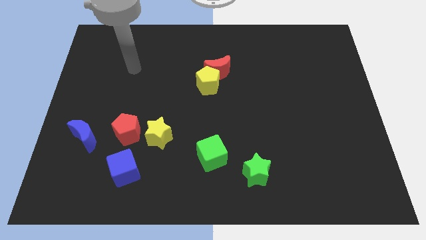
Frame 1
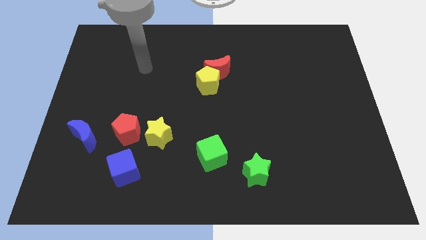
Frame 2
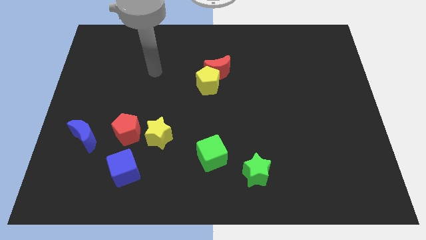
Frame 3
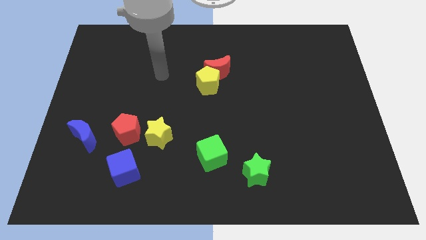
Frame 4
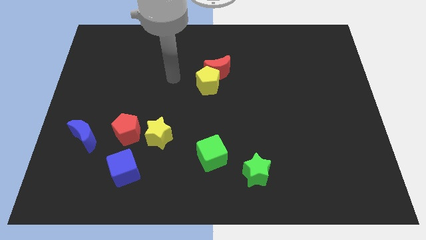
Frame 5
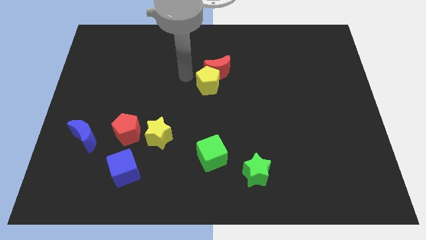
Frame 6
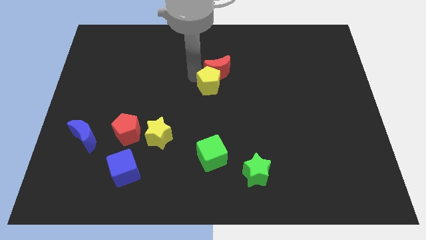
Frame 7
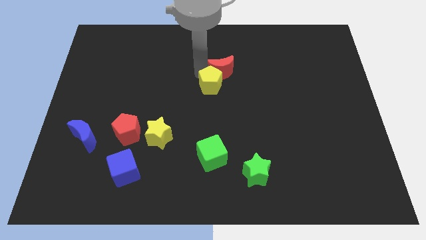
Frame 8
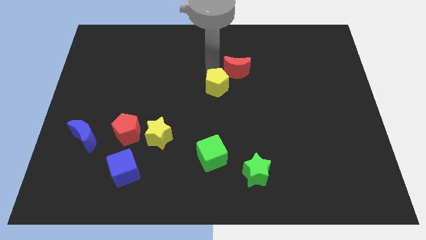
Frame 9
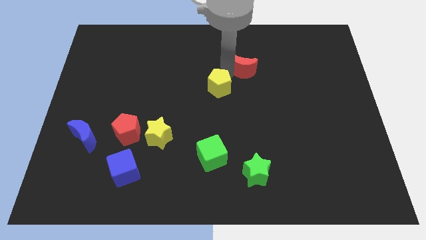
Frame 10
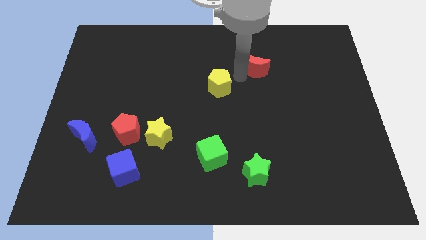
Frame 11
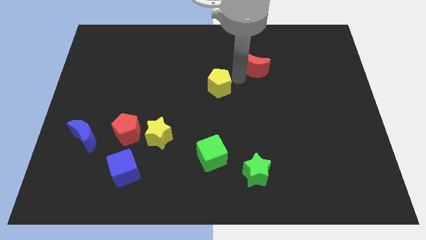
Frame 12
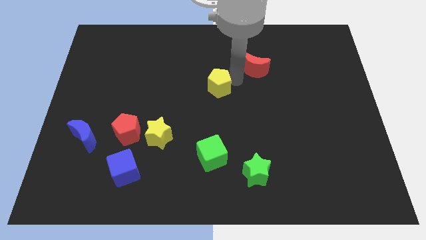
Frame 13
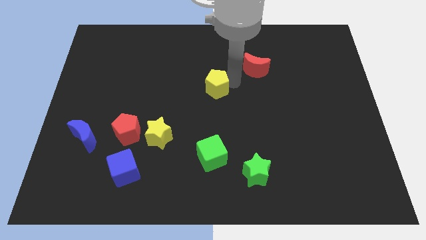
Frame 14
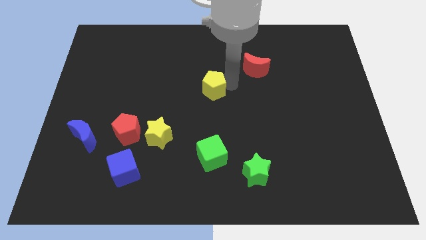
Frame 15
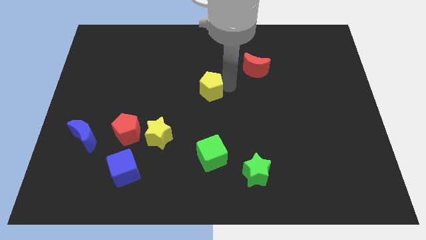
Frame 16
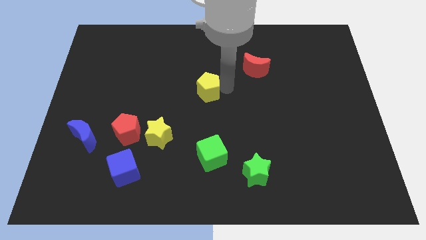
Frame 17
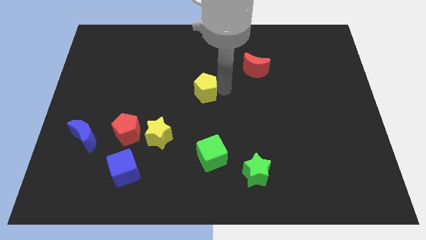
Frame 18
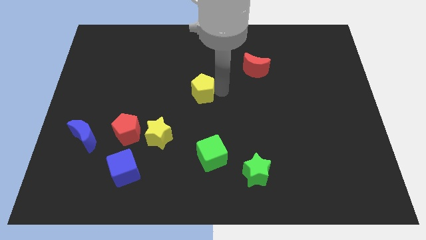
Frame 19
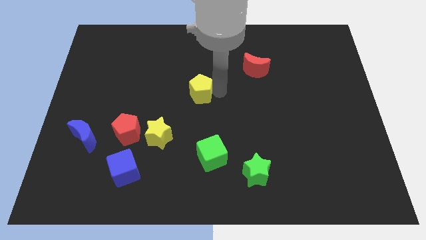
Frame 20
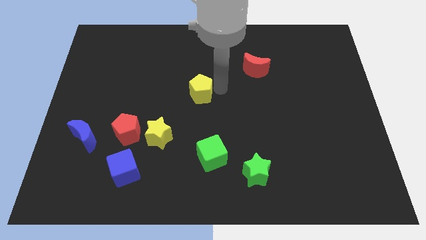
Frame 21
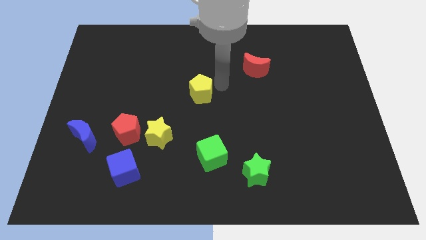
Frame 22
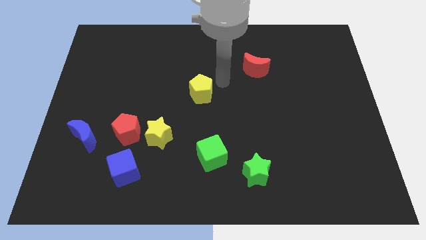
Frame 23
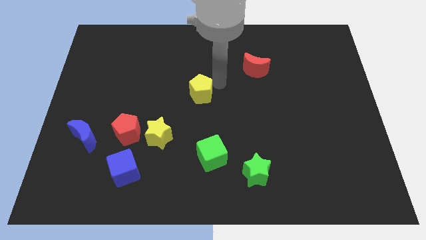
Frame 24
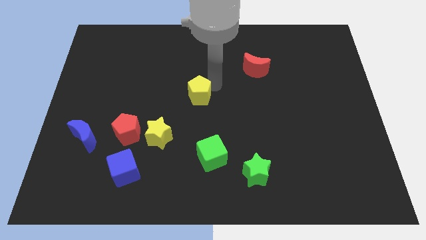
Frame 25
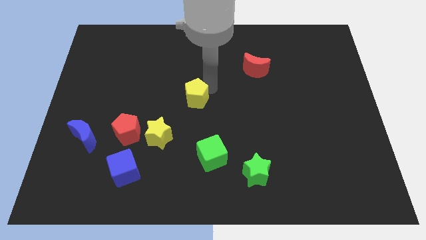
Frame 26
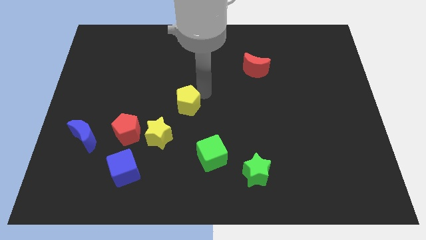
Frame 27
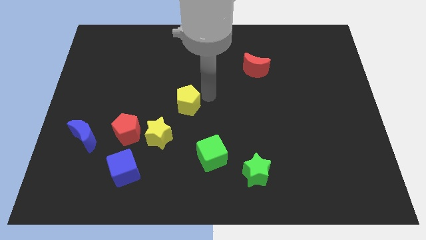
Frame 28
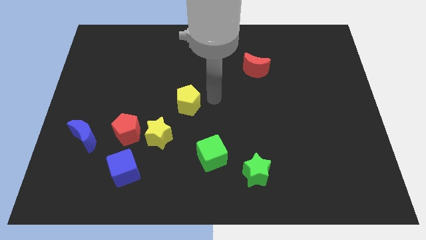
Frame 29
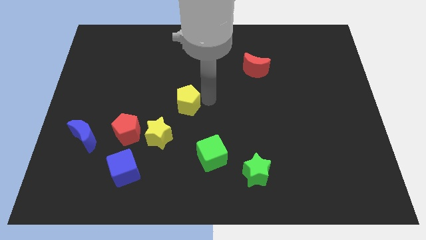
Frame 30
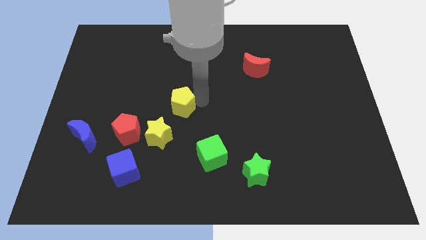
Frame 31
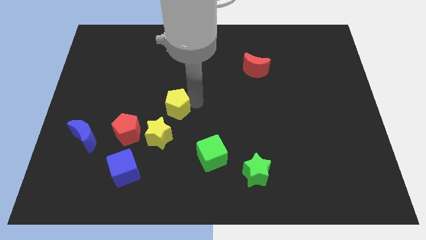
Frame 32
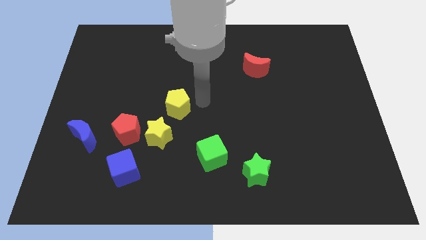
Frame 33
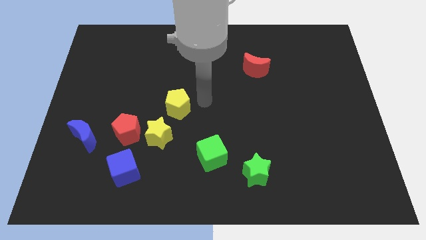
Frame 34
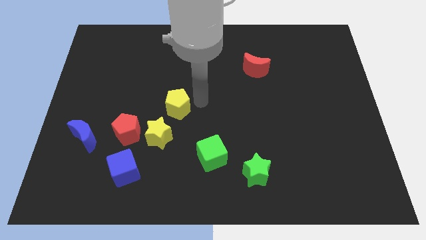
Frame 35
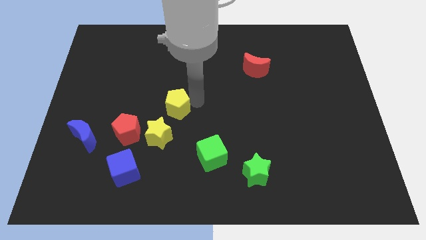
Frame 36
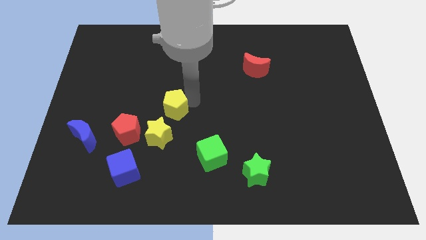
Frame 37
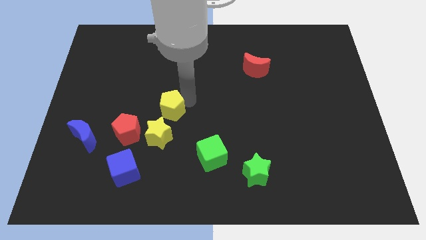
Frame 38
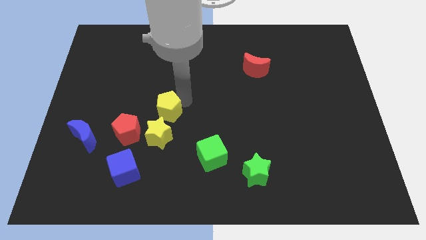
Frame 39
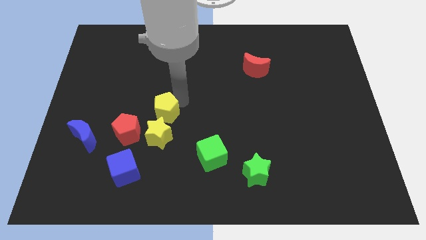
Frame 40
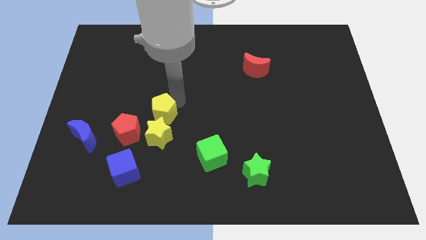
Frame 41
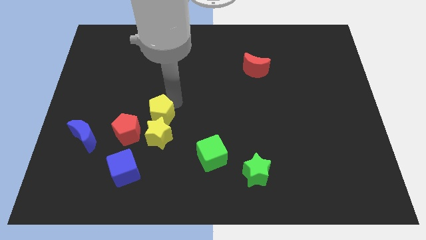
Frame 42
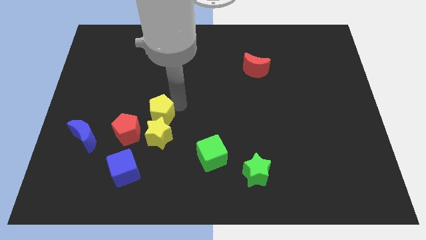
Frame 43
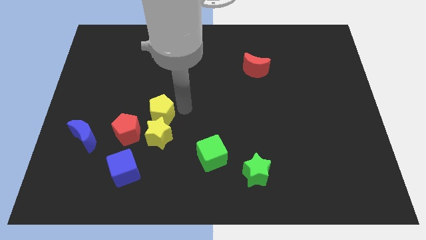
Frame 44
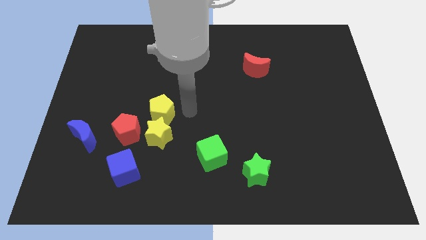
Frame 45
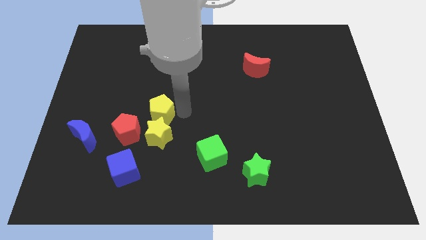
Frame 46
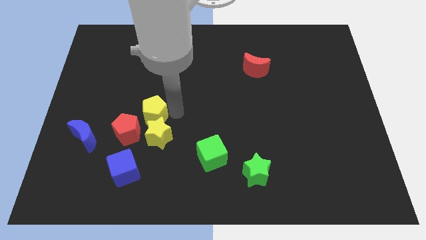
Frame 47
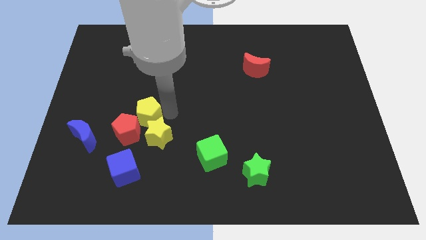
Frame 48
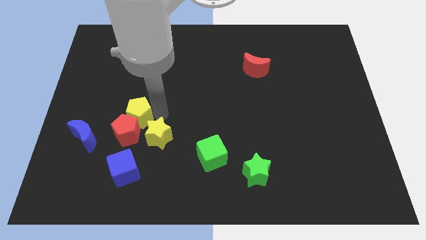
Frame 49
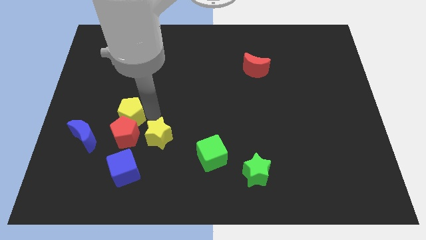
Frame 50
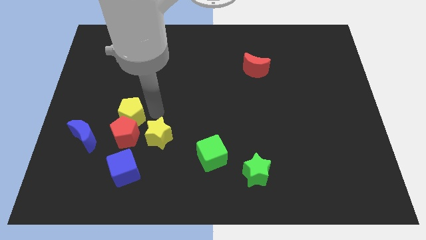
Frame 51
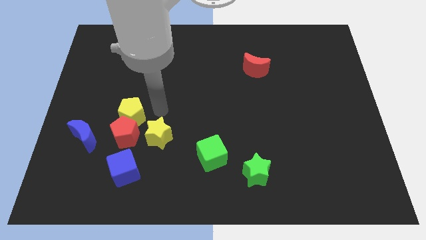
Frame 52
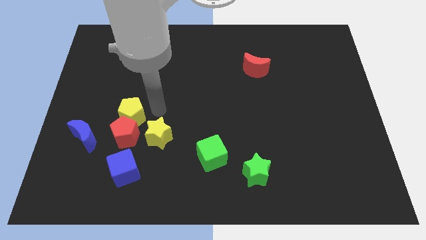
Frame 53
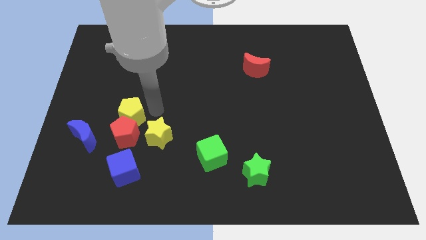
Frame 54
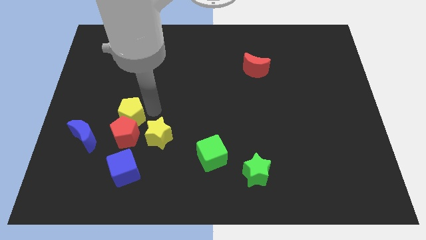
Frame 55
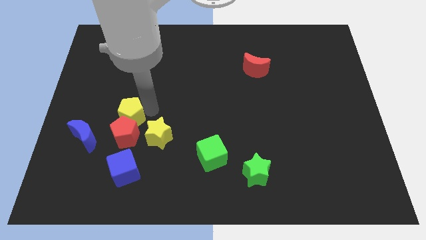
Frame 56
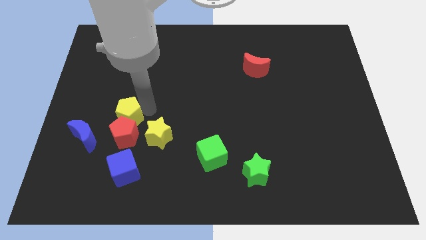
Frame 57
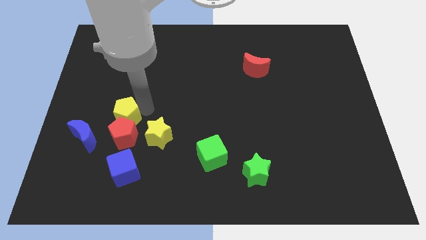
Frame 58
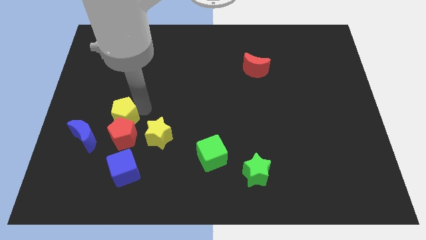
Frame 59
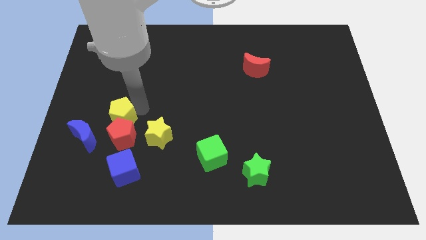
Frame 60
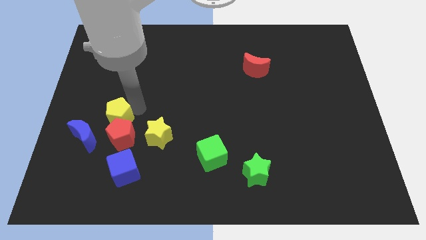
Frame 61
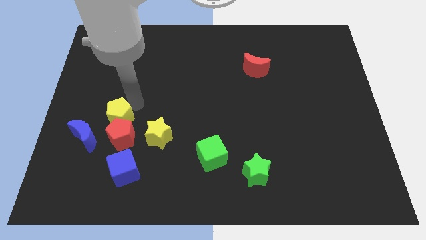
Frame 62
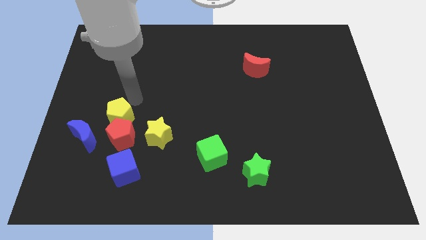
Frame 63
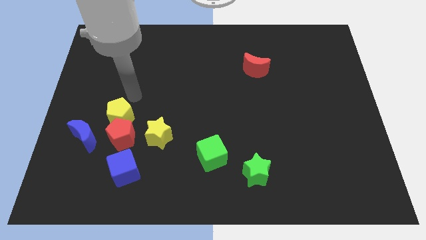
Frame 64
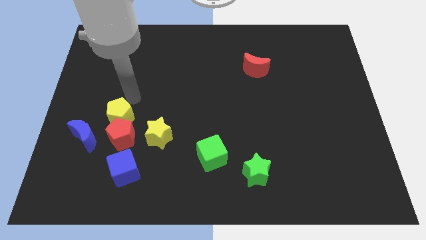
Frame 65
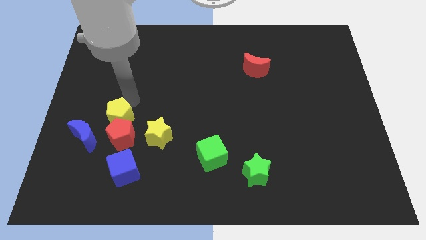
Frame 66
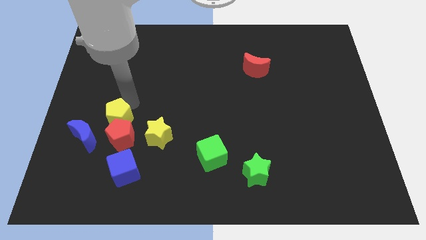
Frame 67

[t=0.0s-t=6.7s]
put the yellow pentagon just left of the yellow star

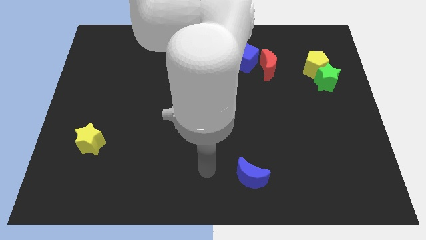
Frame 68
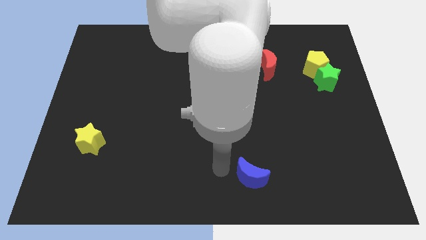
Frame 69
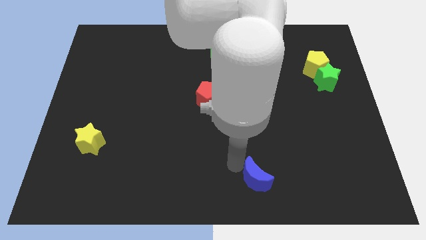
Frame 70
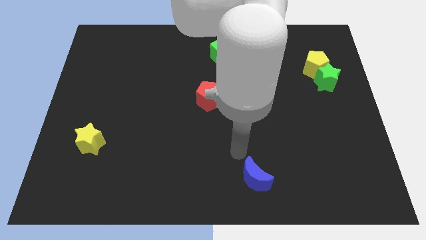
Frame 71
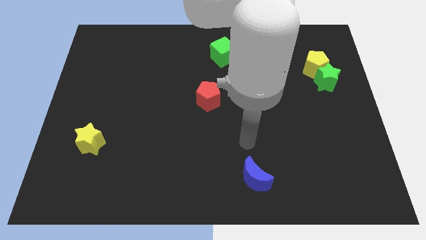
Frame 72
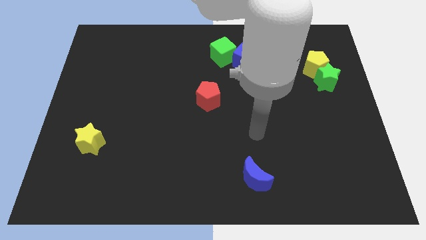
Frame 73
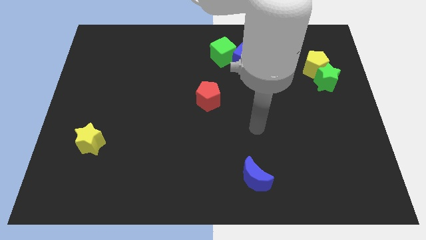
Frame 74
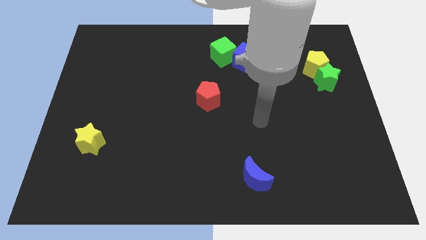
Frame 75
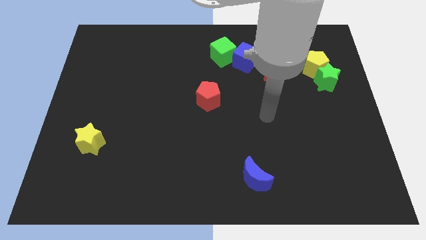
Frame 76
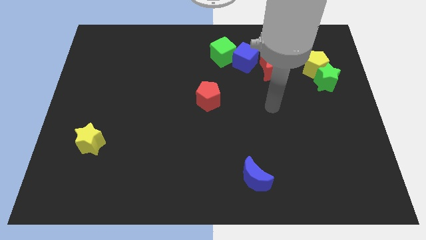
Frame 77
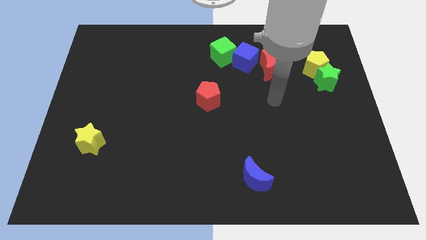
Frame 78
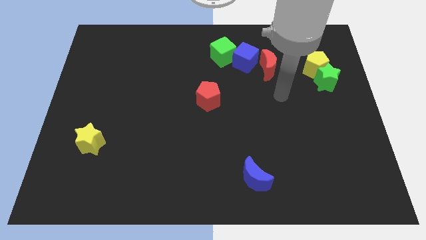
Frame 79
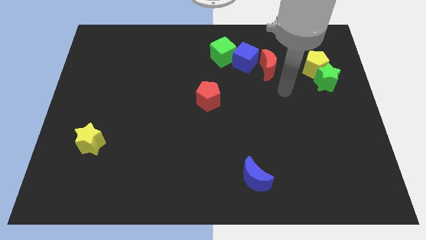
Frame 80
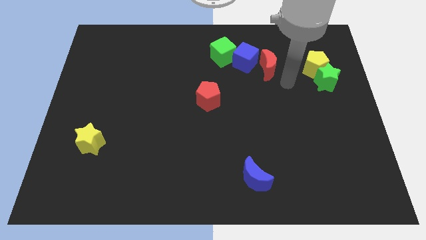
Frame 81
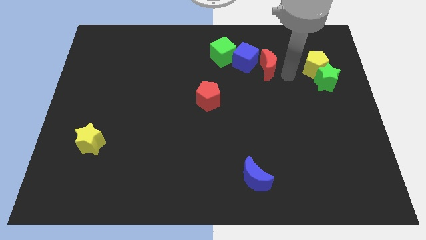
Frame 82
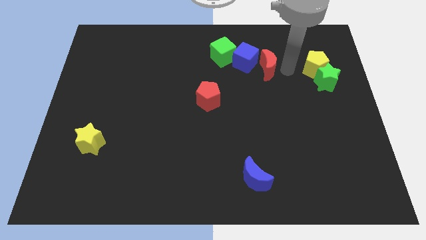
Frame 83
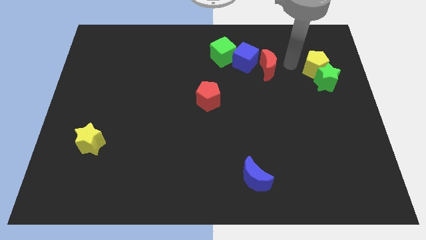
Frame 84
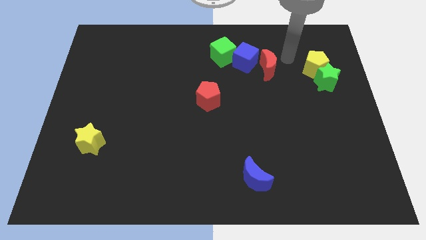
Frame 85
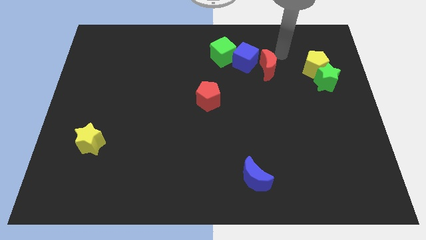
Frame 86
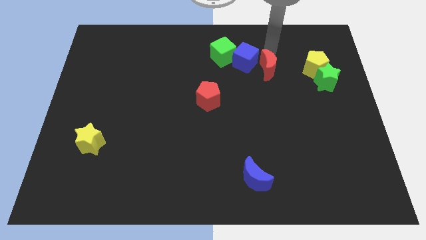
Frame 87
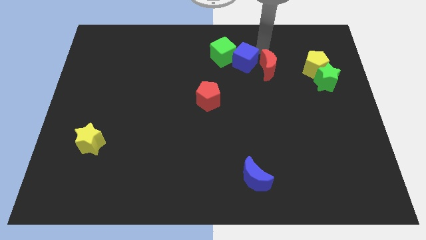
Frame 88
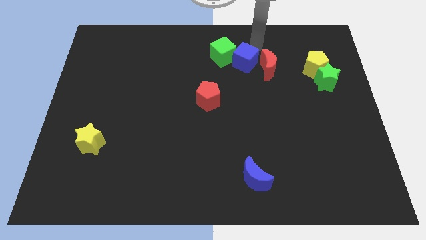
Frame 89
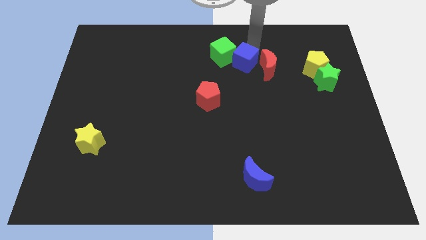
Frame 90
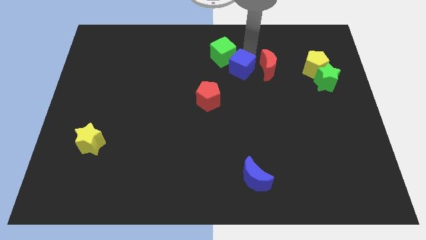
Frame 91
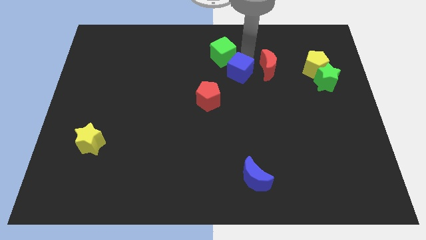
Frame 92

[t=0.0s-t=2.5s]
put the blue cube to the top right of the red pentagon
